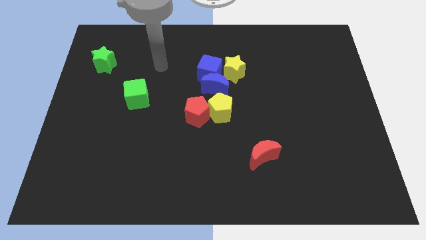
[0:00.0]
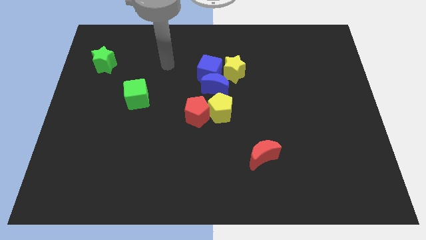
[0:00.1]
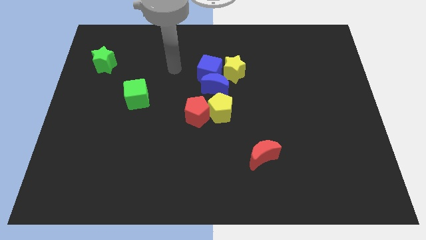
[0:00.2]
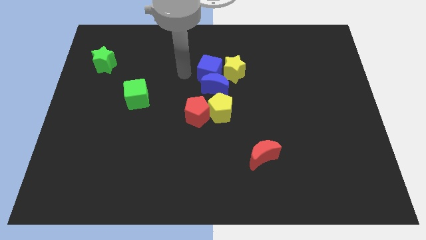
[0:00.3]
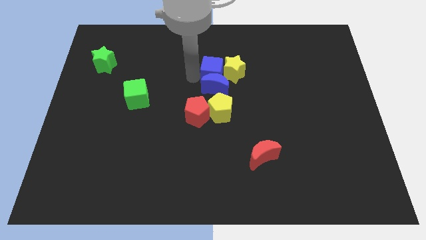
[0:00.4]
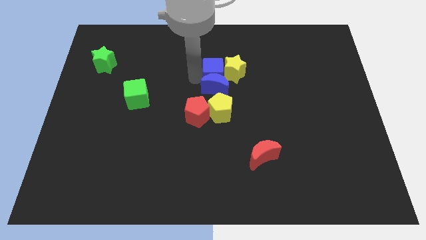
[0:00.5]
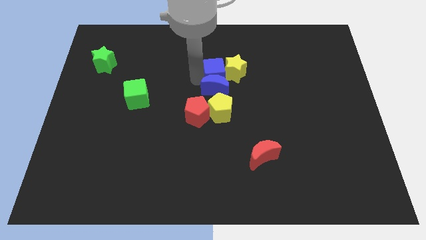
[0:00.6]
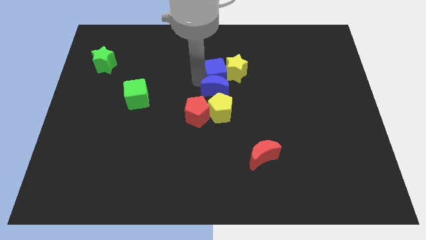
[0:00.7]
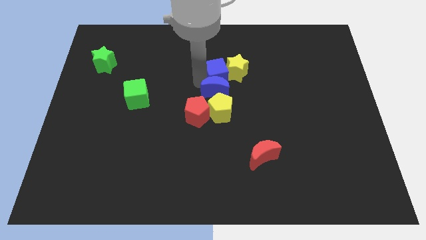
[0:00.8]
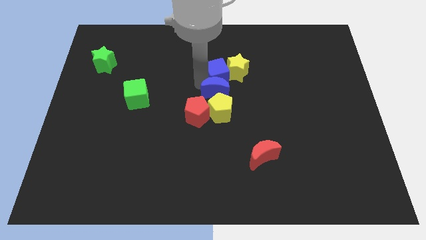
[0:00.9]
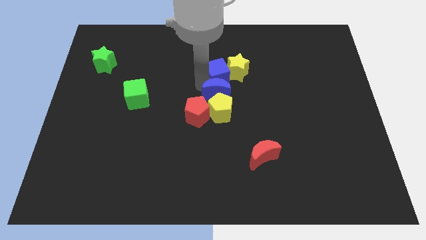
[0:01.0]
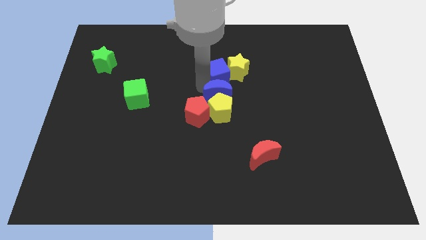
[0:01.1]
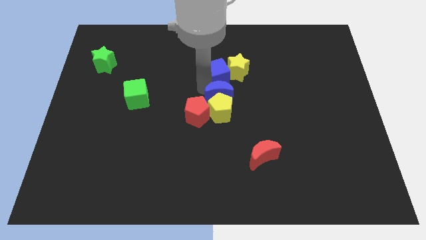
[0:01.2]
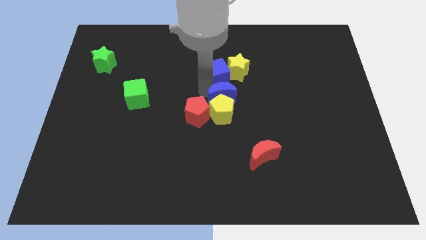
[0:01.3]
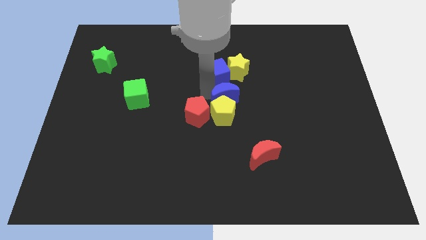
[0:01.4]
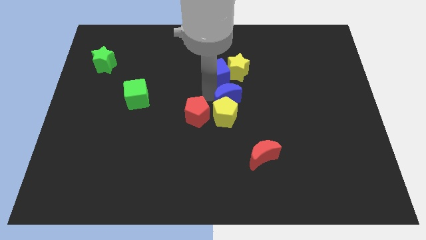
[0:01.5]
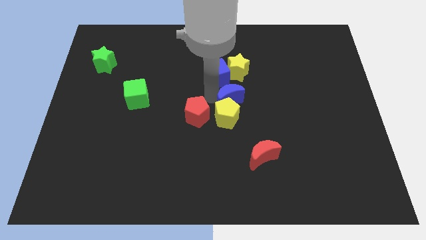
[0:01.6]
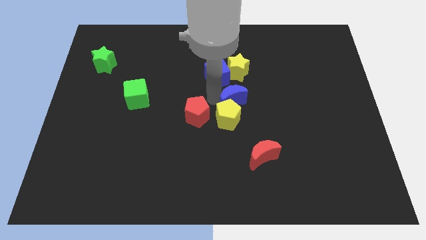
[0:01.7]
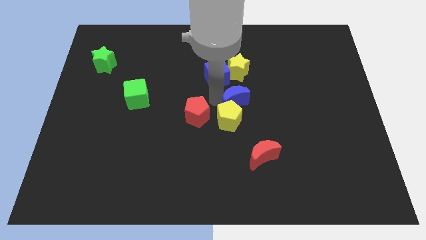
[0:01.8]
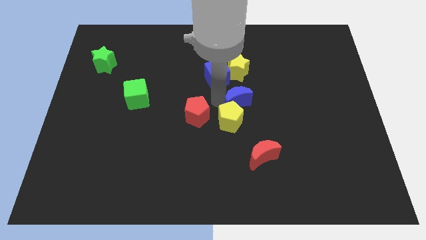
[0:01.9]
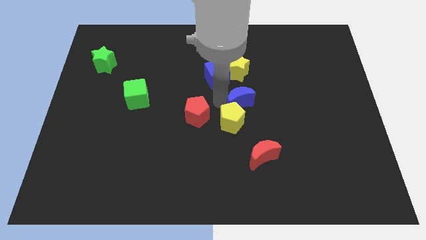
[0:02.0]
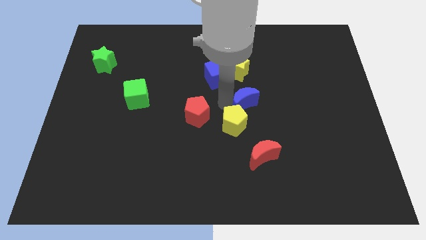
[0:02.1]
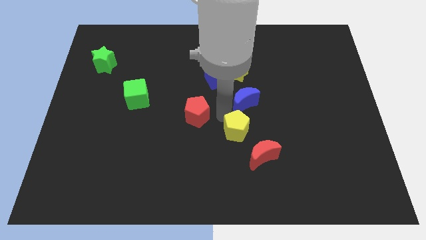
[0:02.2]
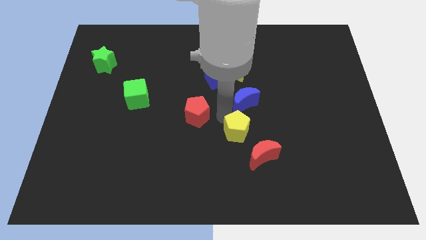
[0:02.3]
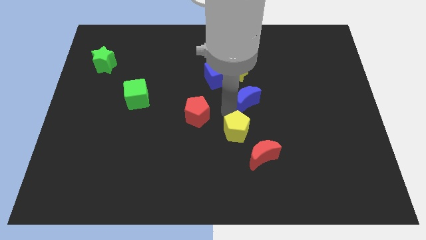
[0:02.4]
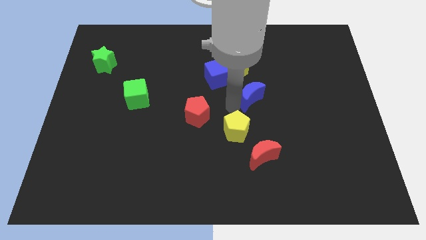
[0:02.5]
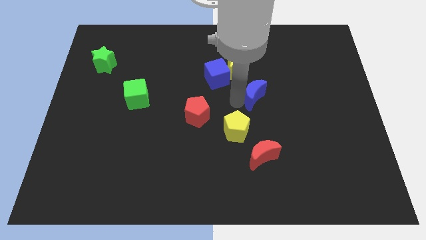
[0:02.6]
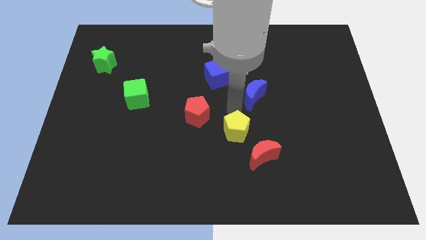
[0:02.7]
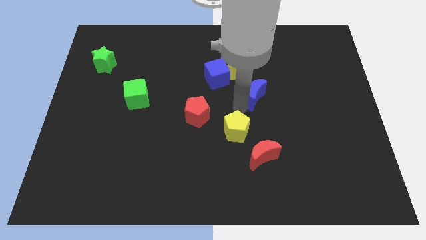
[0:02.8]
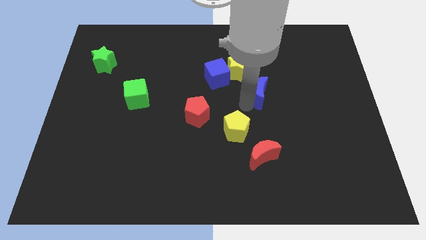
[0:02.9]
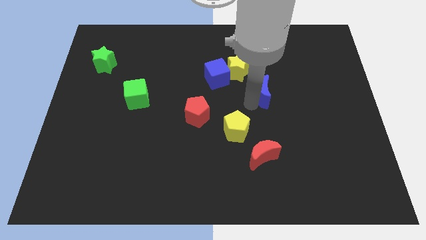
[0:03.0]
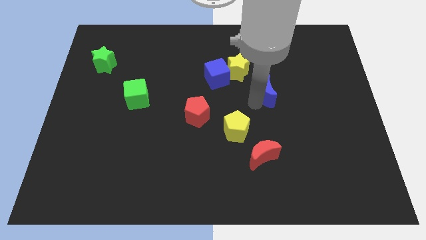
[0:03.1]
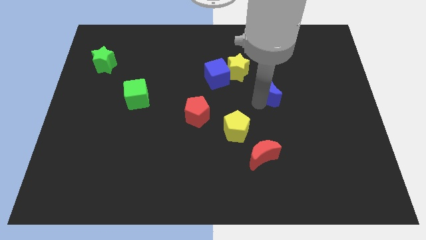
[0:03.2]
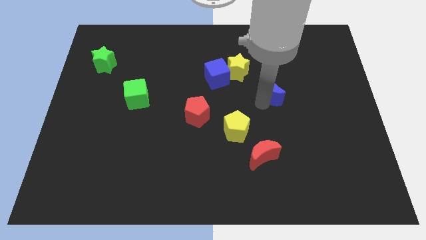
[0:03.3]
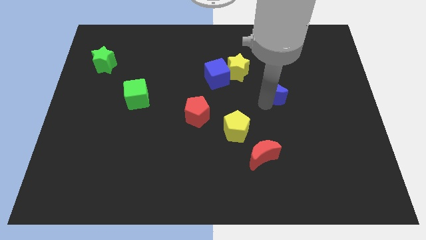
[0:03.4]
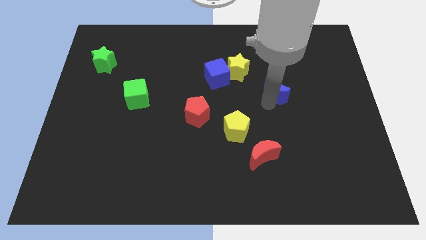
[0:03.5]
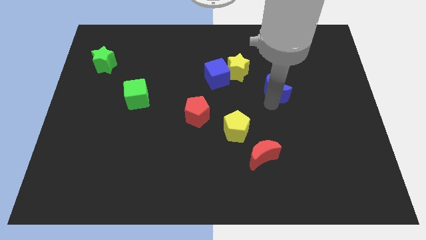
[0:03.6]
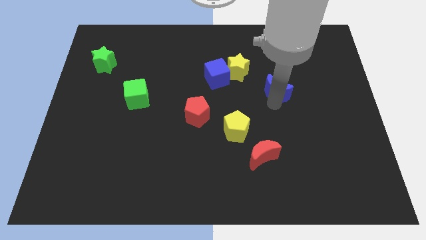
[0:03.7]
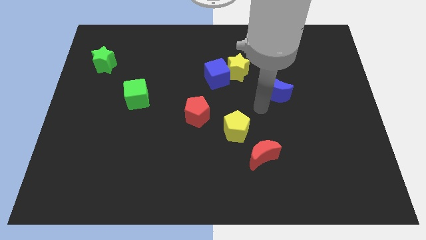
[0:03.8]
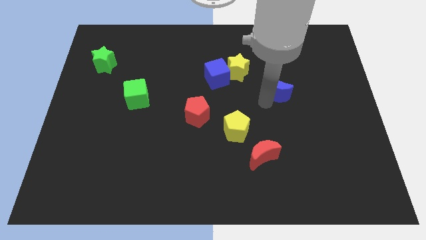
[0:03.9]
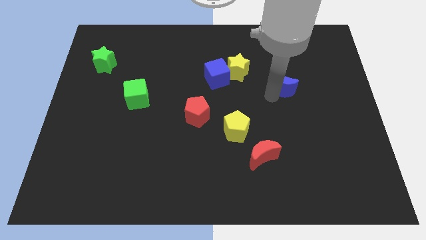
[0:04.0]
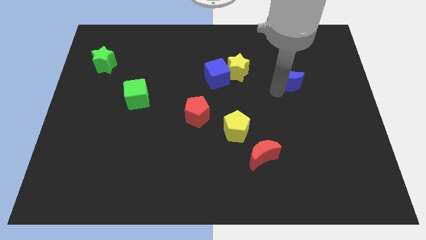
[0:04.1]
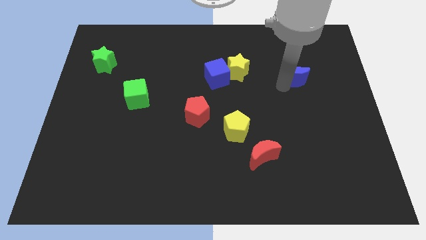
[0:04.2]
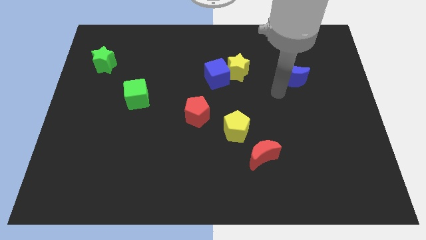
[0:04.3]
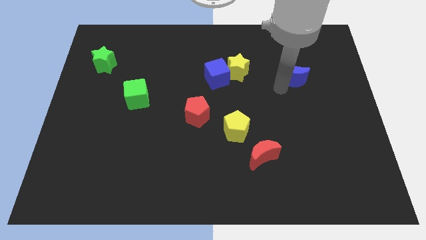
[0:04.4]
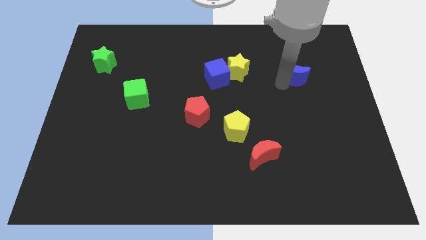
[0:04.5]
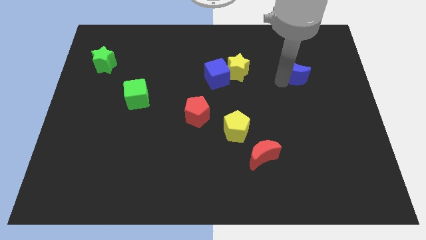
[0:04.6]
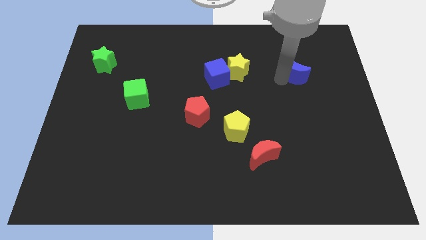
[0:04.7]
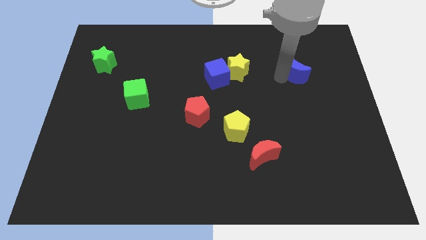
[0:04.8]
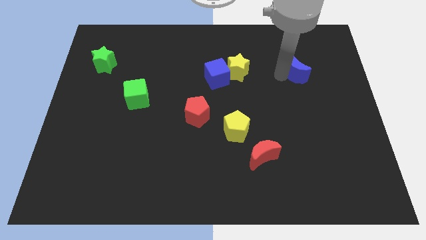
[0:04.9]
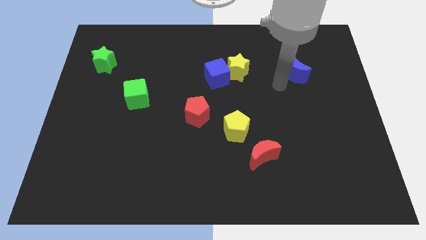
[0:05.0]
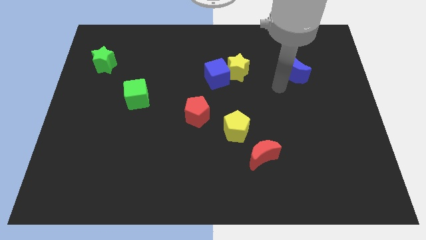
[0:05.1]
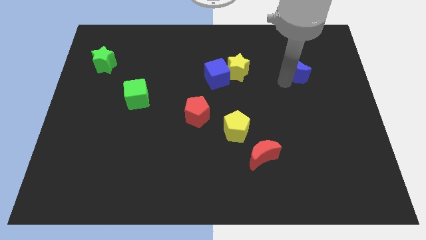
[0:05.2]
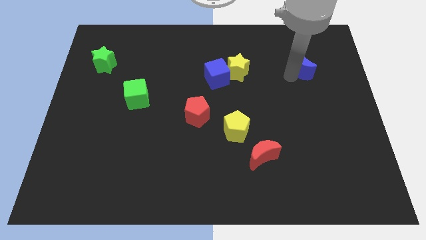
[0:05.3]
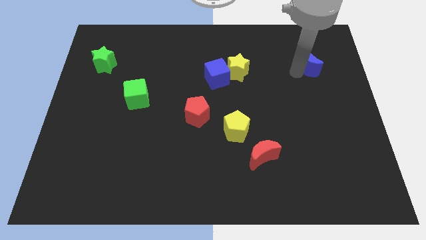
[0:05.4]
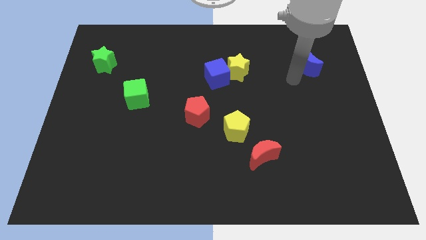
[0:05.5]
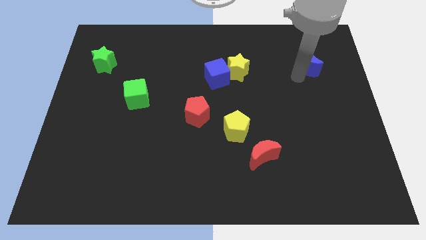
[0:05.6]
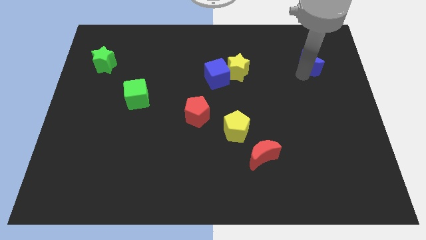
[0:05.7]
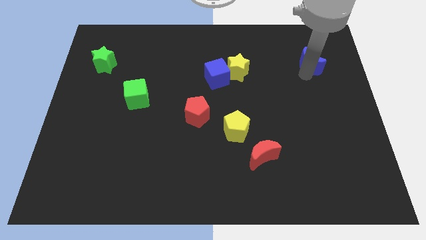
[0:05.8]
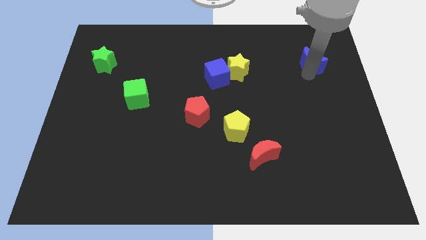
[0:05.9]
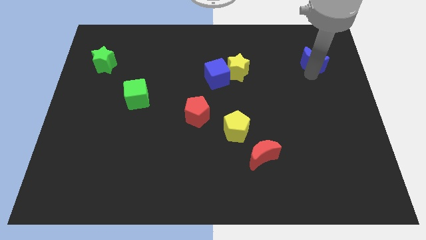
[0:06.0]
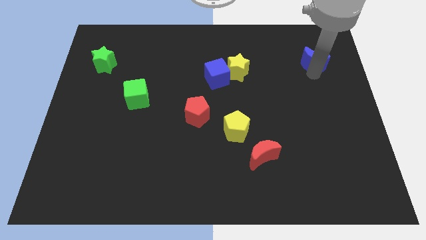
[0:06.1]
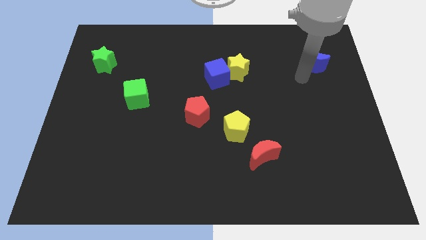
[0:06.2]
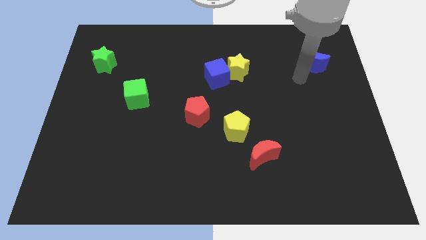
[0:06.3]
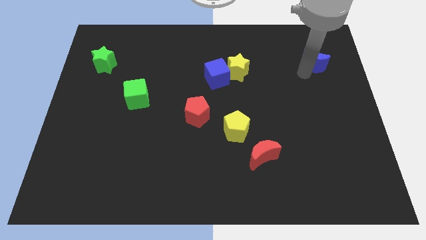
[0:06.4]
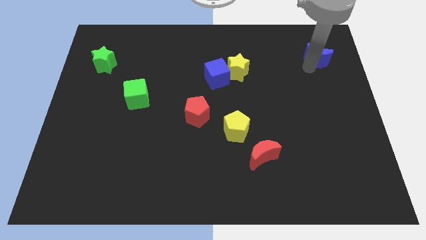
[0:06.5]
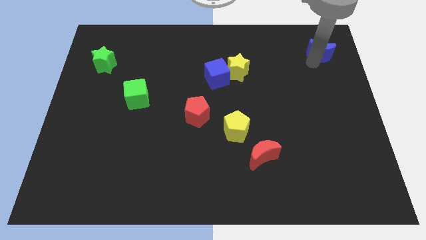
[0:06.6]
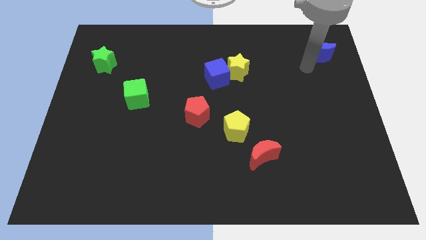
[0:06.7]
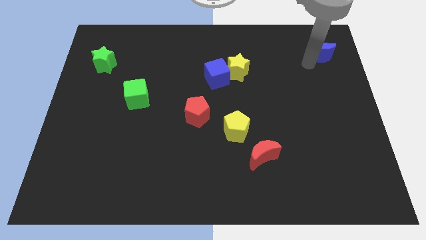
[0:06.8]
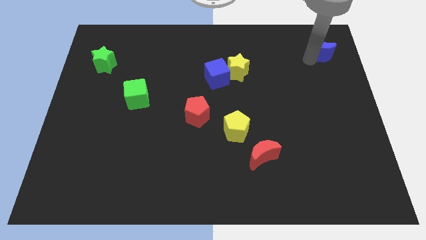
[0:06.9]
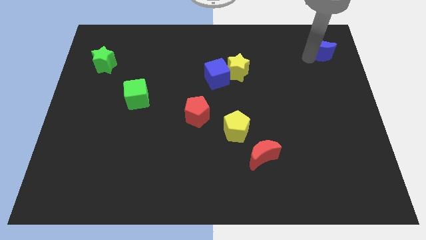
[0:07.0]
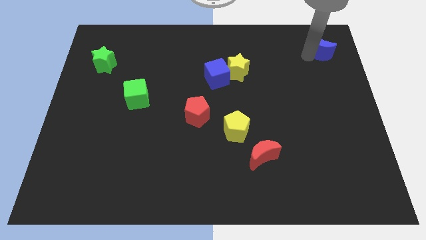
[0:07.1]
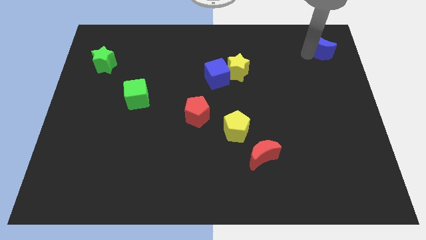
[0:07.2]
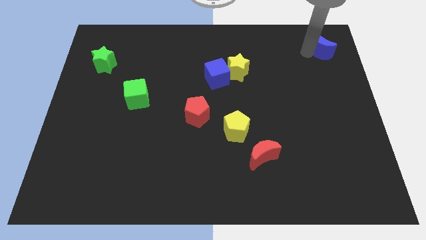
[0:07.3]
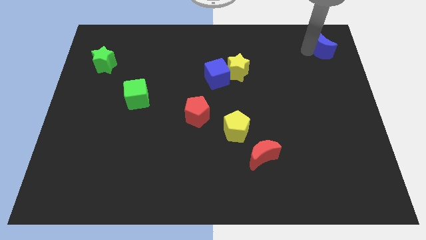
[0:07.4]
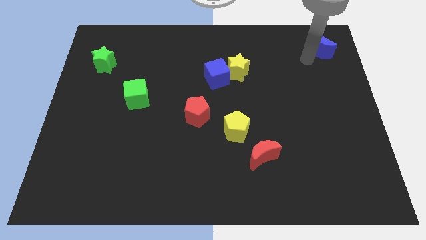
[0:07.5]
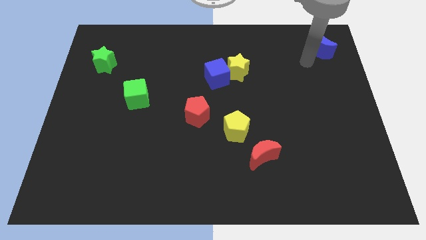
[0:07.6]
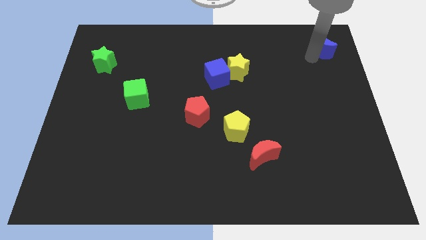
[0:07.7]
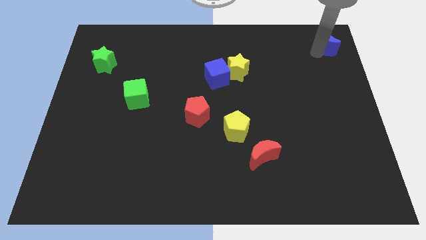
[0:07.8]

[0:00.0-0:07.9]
move the blue moon to the upper right corner
